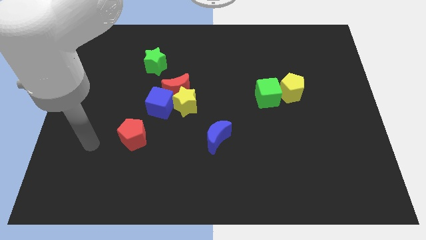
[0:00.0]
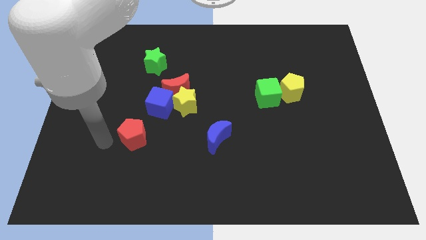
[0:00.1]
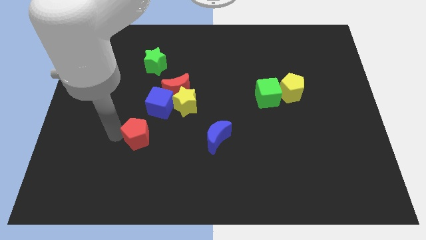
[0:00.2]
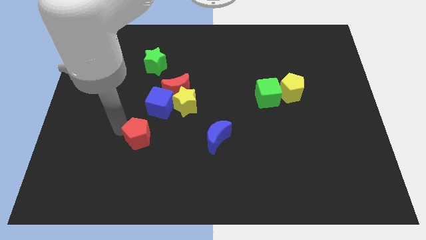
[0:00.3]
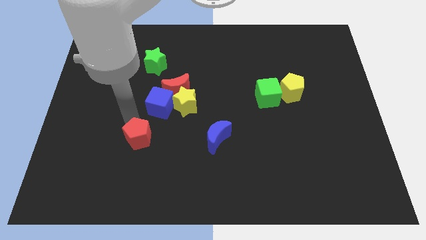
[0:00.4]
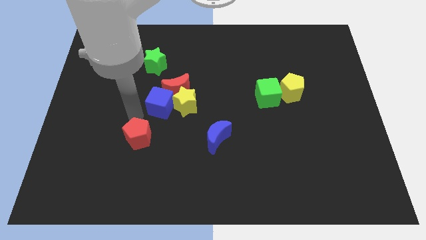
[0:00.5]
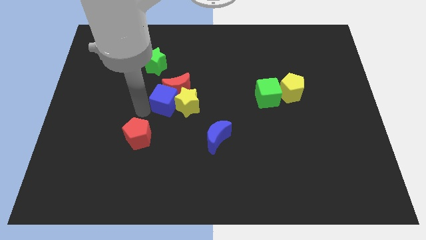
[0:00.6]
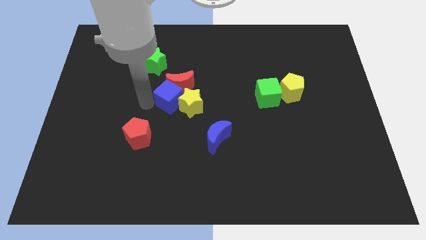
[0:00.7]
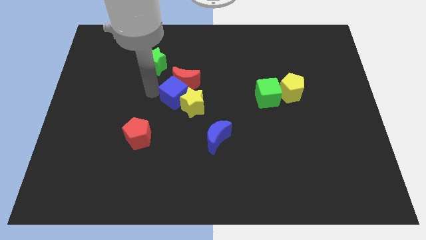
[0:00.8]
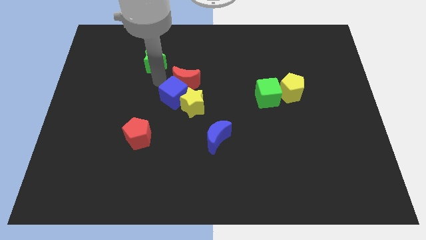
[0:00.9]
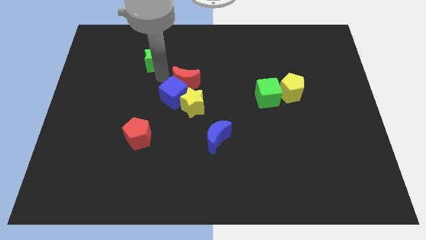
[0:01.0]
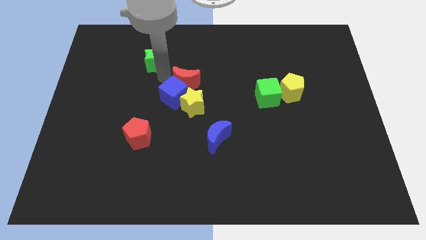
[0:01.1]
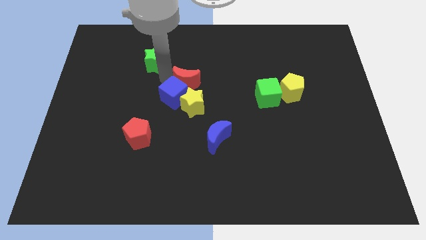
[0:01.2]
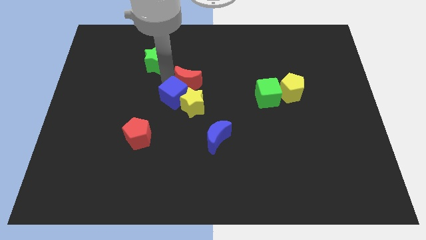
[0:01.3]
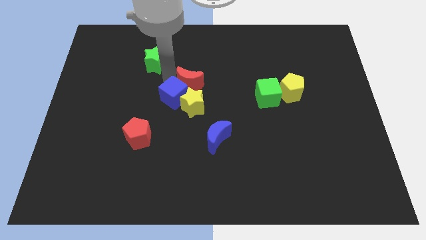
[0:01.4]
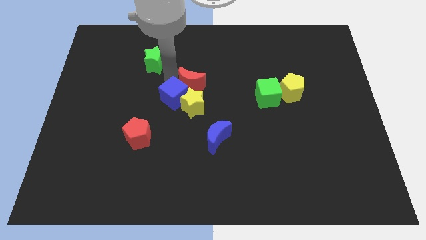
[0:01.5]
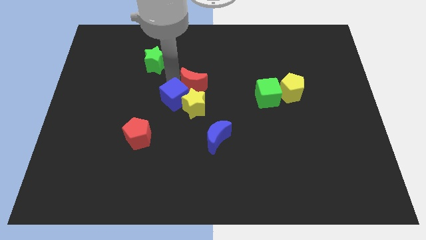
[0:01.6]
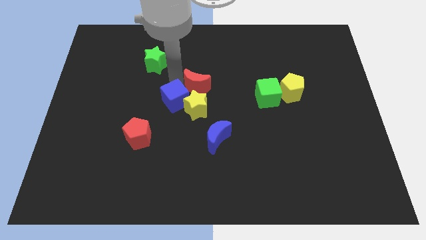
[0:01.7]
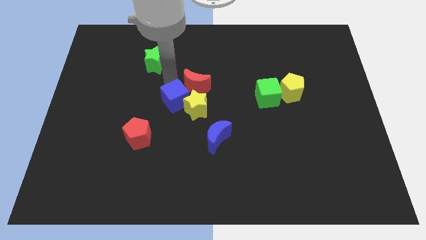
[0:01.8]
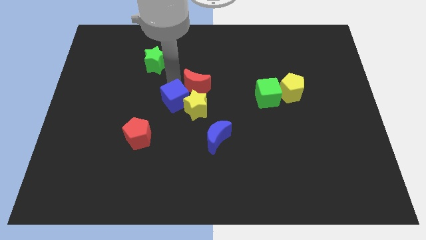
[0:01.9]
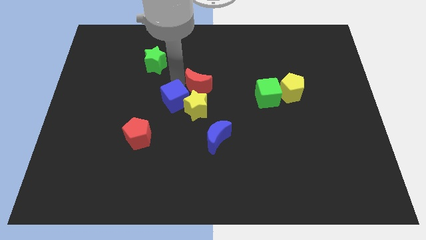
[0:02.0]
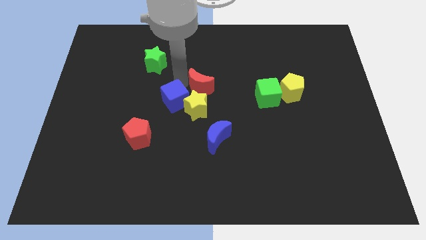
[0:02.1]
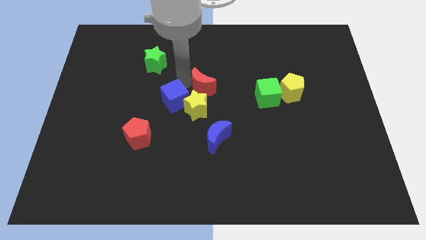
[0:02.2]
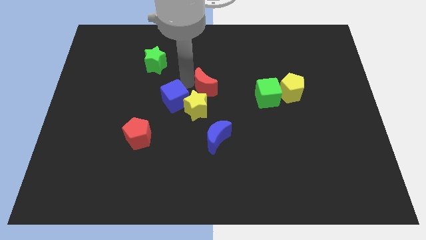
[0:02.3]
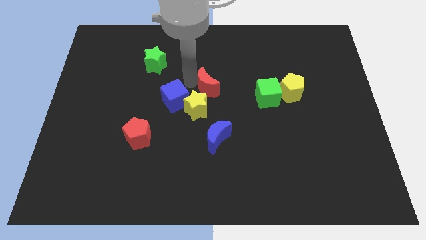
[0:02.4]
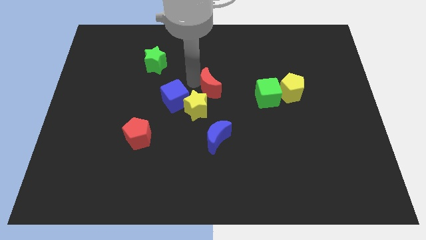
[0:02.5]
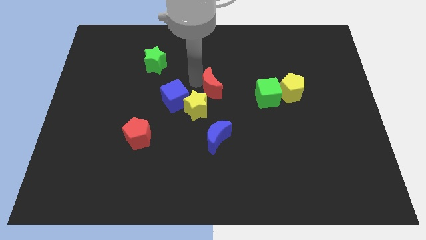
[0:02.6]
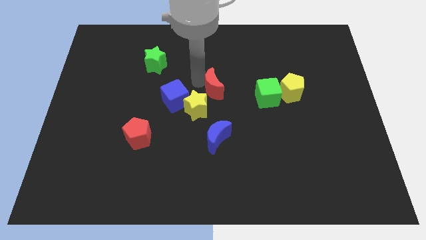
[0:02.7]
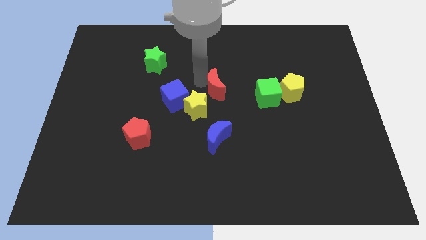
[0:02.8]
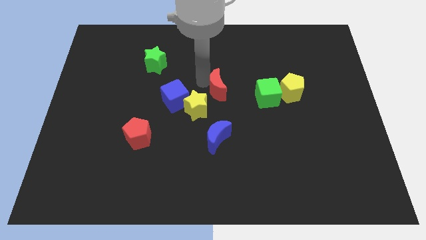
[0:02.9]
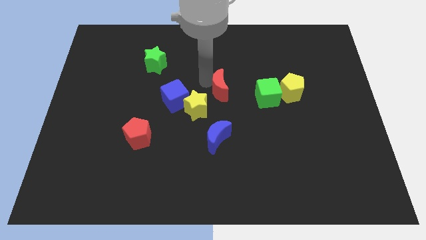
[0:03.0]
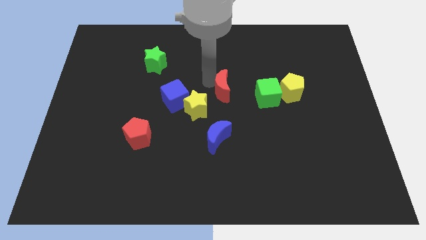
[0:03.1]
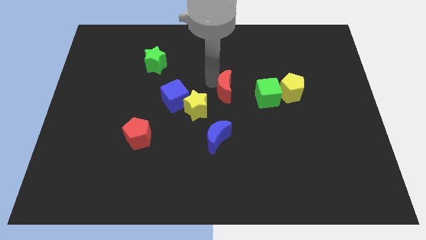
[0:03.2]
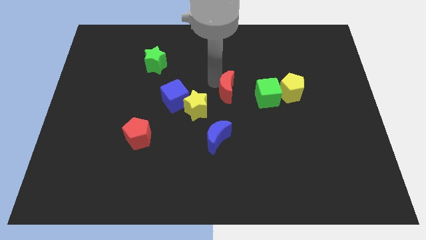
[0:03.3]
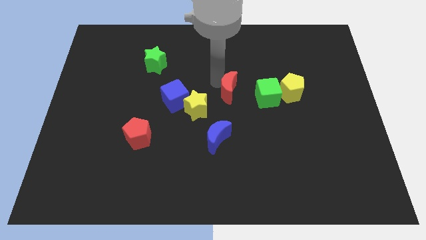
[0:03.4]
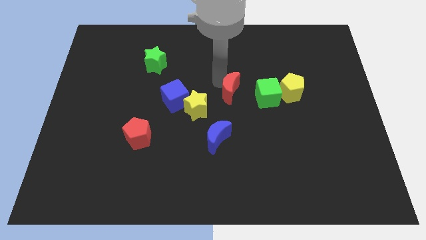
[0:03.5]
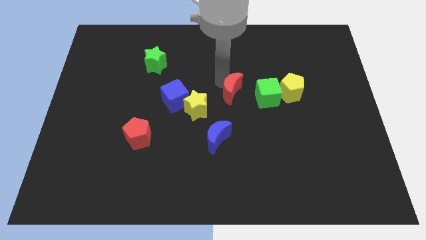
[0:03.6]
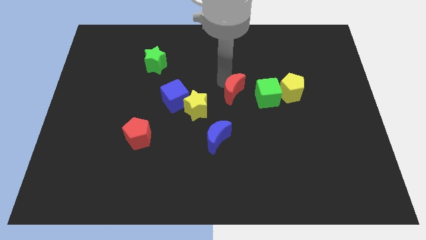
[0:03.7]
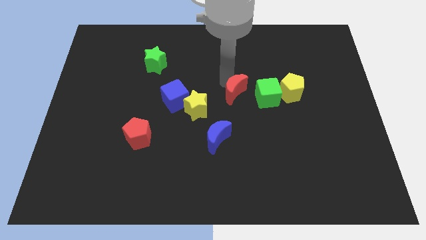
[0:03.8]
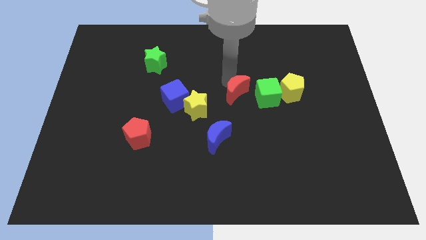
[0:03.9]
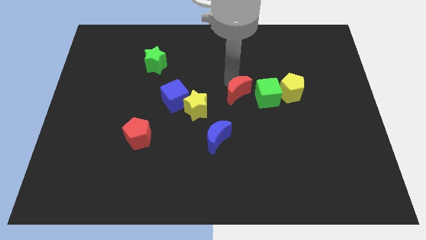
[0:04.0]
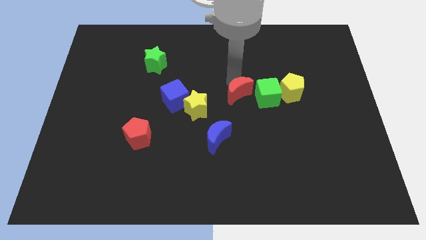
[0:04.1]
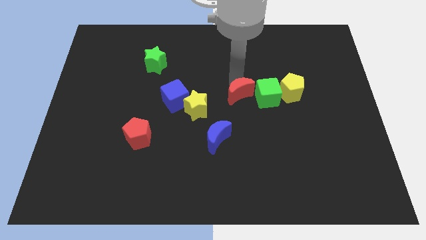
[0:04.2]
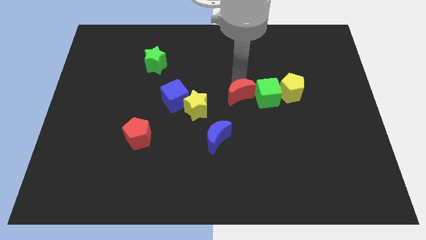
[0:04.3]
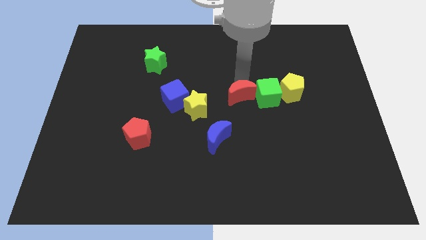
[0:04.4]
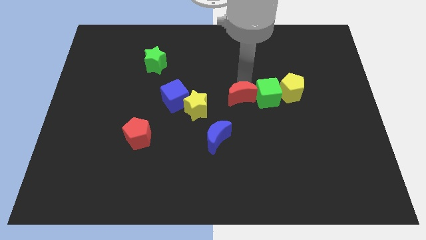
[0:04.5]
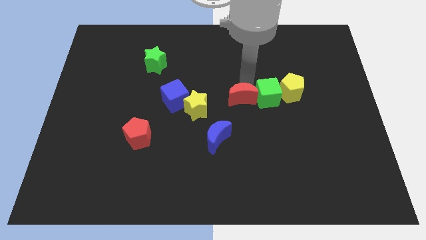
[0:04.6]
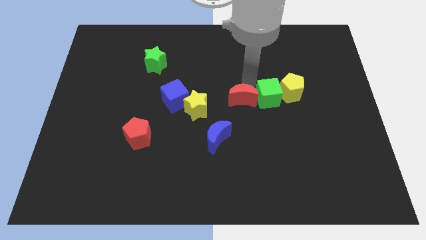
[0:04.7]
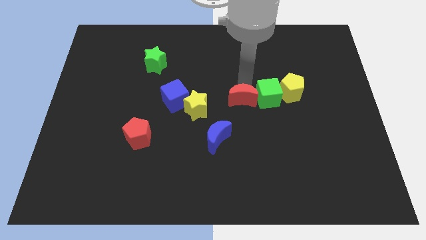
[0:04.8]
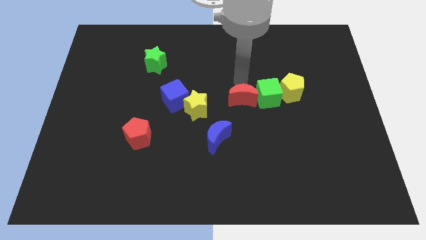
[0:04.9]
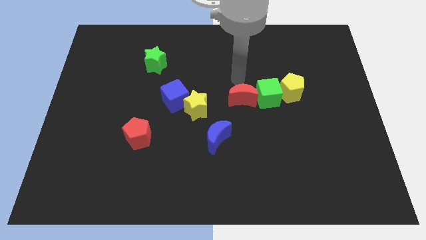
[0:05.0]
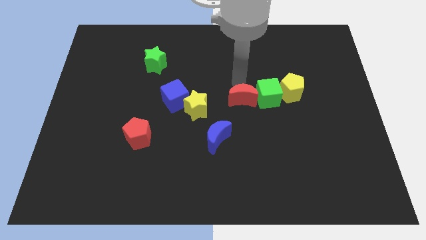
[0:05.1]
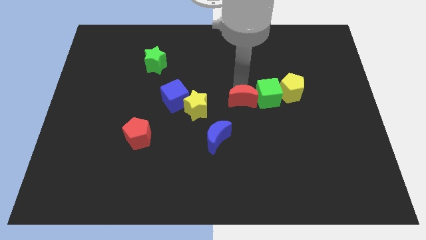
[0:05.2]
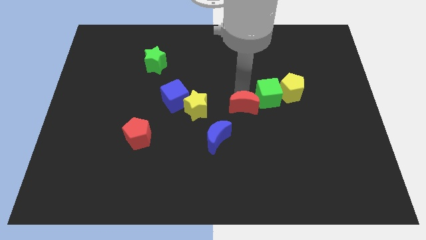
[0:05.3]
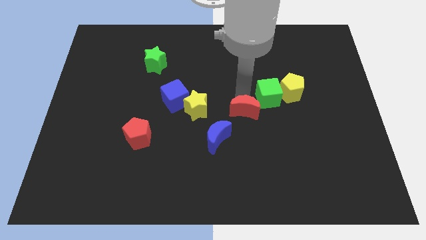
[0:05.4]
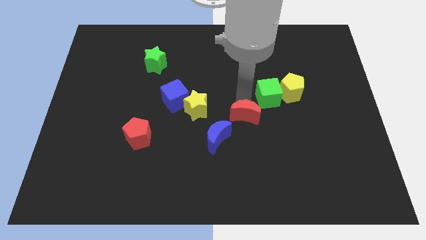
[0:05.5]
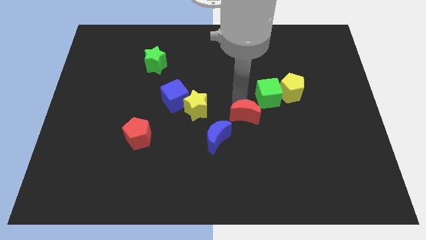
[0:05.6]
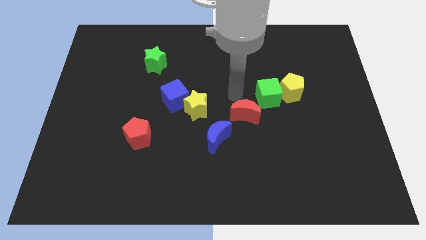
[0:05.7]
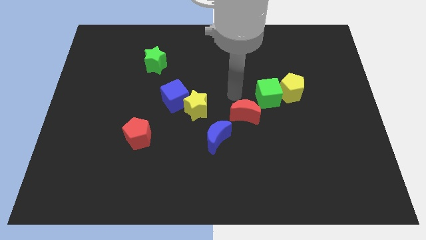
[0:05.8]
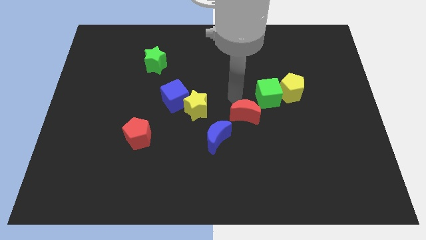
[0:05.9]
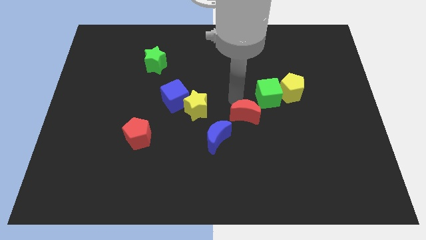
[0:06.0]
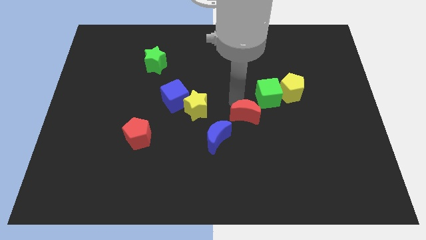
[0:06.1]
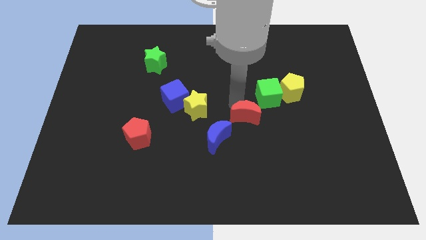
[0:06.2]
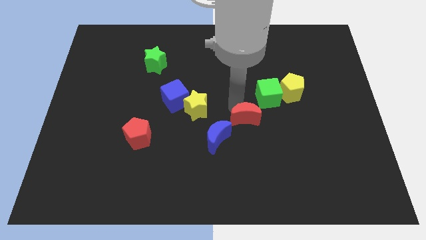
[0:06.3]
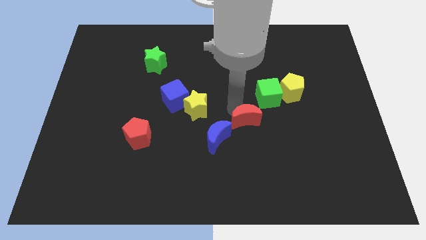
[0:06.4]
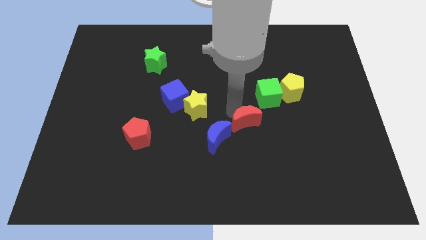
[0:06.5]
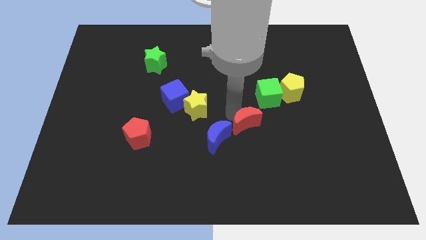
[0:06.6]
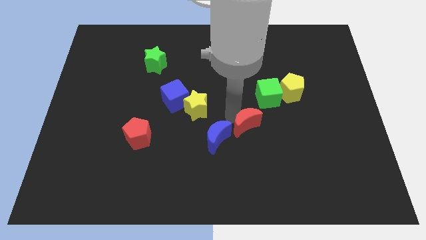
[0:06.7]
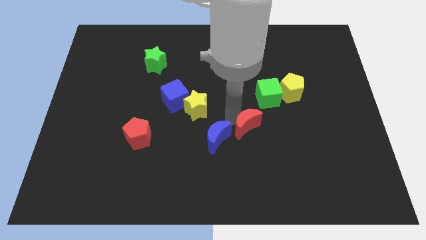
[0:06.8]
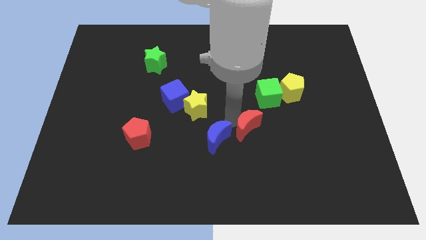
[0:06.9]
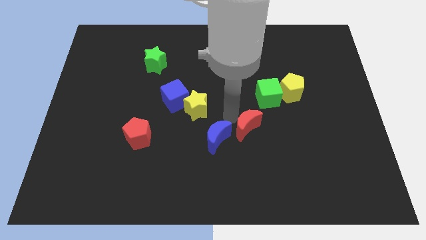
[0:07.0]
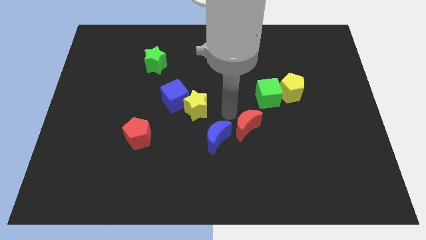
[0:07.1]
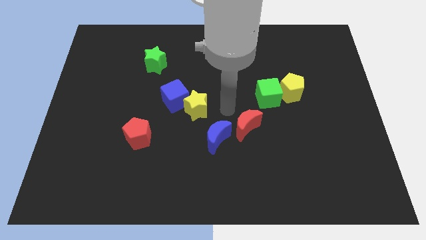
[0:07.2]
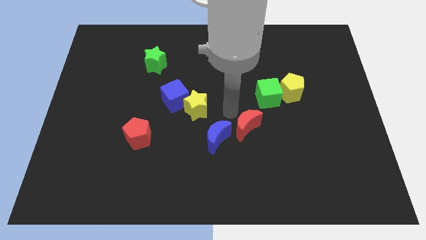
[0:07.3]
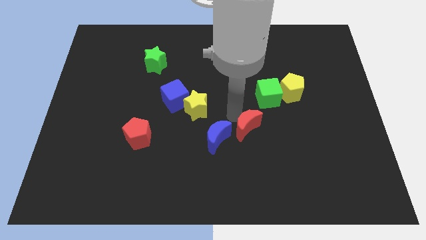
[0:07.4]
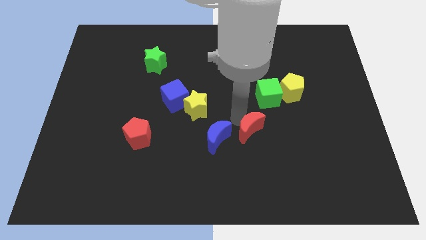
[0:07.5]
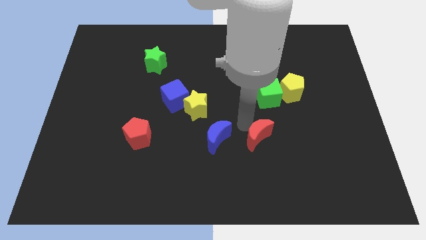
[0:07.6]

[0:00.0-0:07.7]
move the red moon downwards and right diagonally

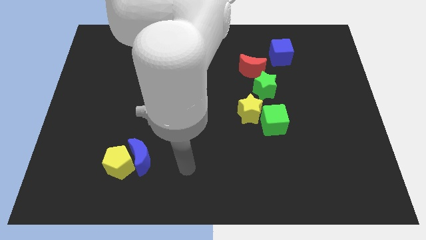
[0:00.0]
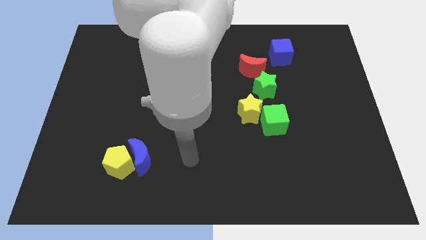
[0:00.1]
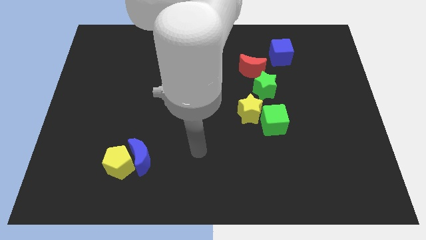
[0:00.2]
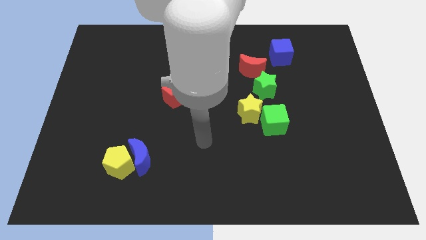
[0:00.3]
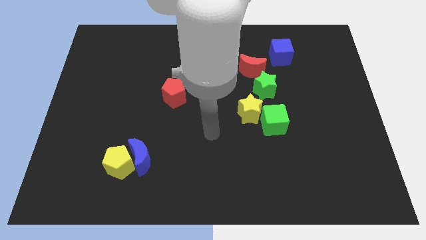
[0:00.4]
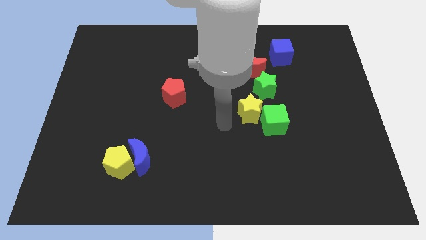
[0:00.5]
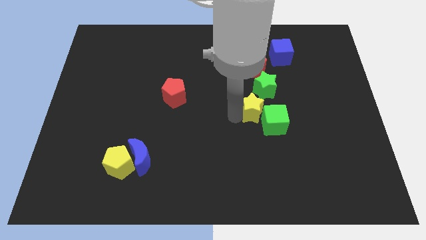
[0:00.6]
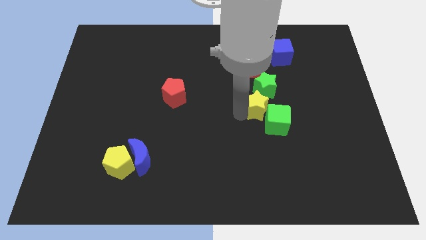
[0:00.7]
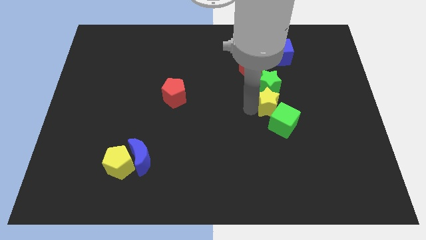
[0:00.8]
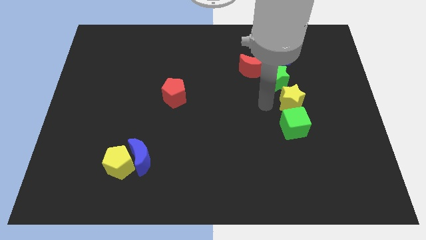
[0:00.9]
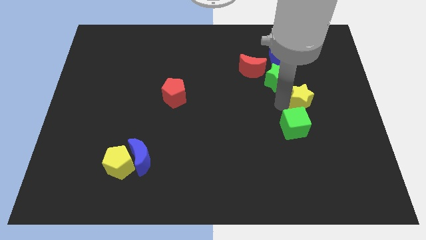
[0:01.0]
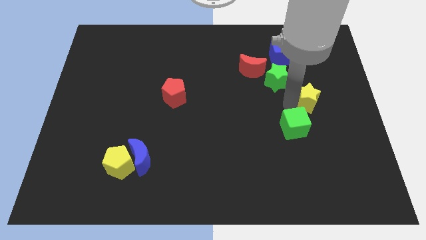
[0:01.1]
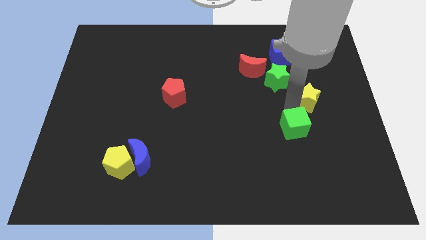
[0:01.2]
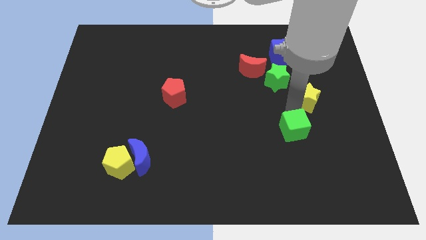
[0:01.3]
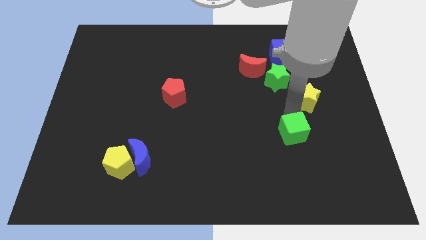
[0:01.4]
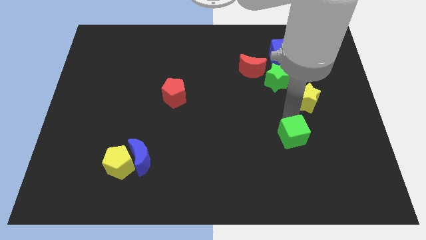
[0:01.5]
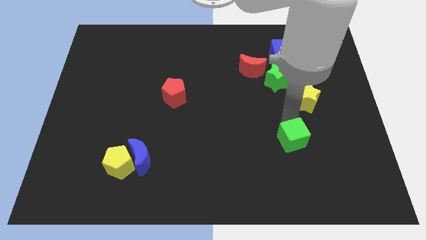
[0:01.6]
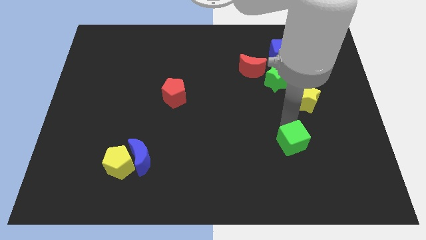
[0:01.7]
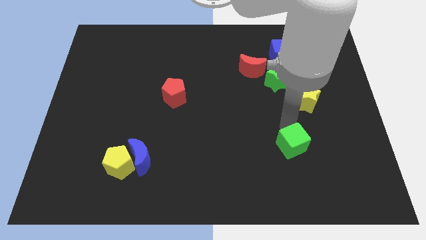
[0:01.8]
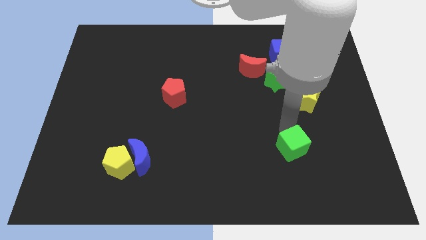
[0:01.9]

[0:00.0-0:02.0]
push the green cube slightly down and to the right diagonally
